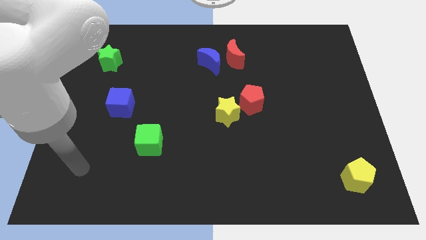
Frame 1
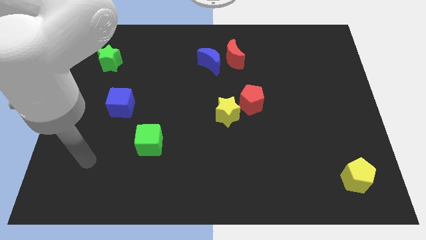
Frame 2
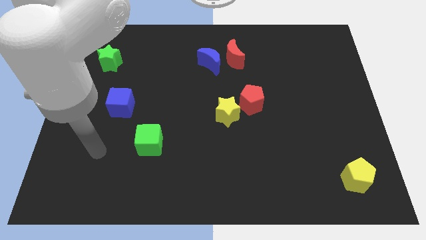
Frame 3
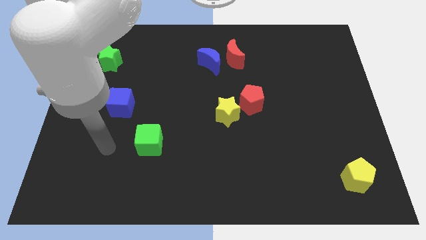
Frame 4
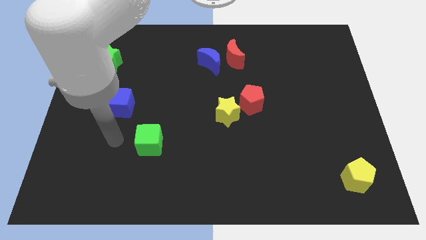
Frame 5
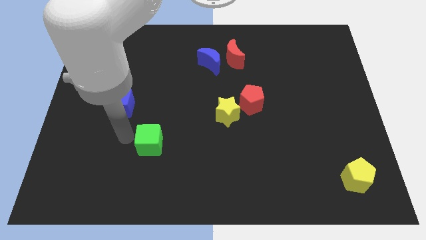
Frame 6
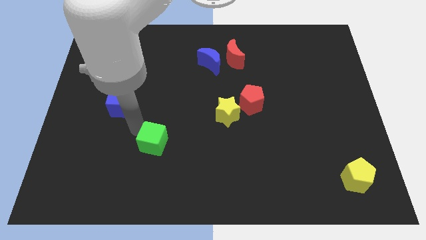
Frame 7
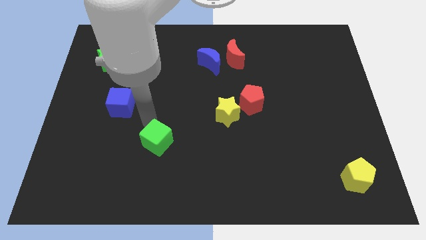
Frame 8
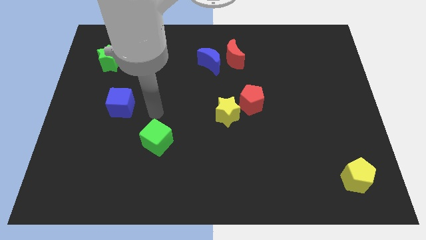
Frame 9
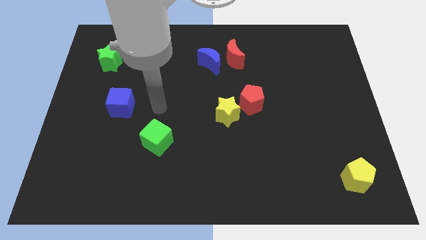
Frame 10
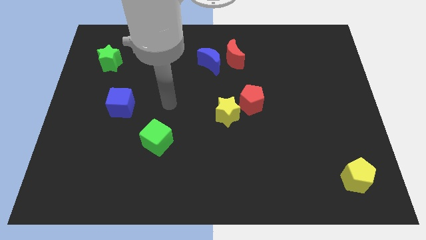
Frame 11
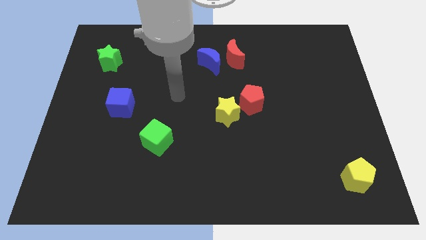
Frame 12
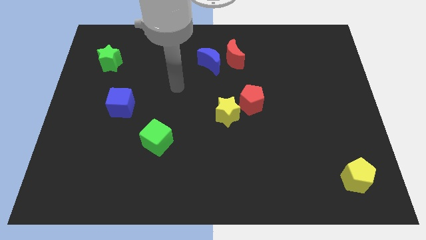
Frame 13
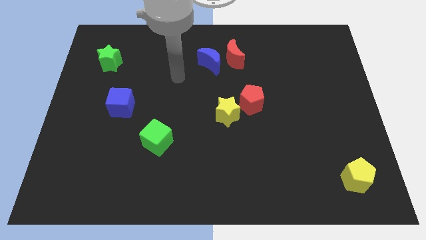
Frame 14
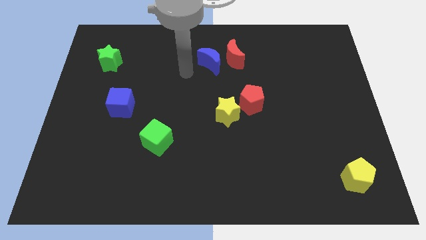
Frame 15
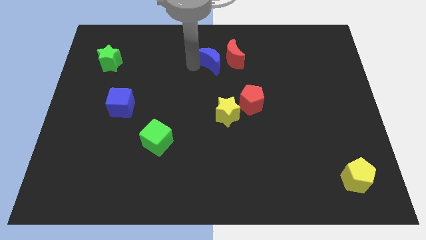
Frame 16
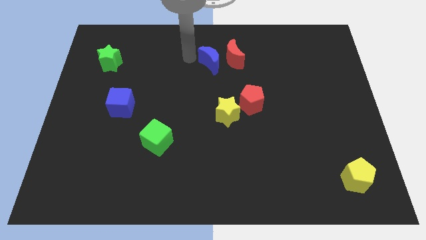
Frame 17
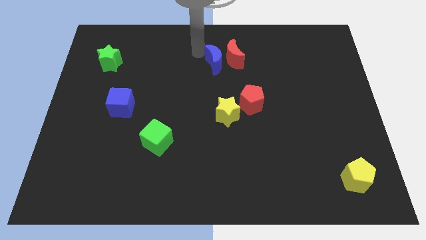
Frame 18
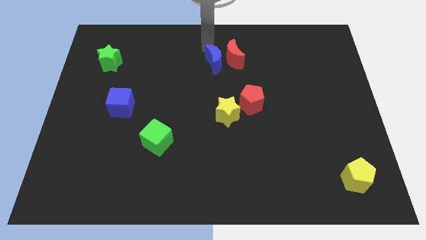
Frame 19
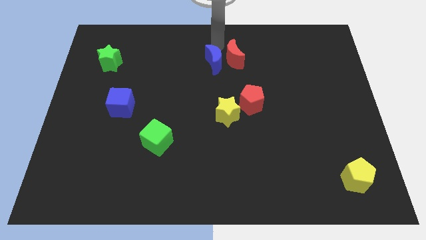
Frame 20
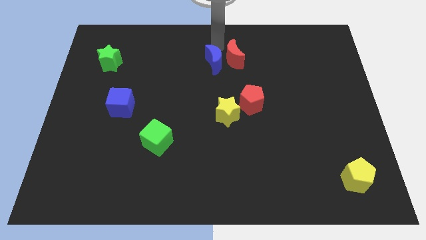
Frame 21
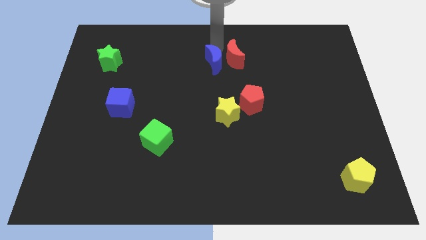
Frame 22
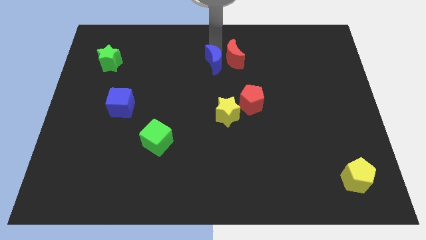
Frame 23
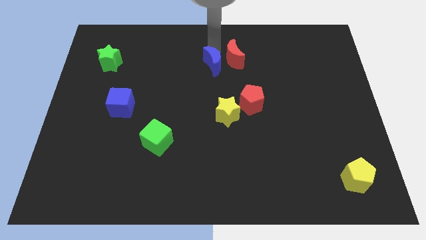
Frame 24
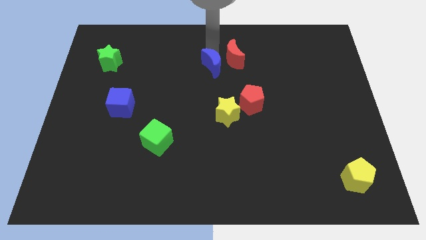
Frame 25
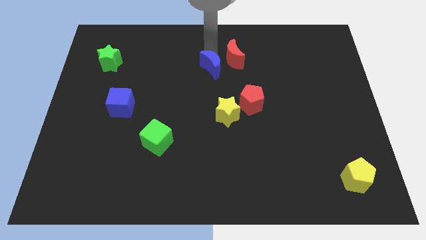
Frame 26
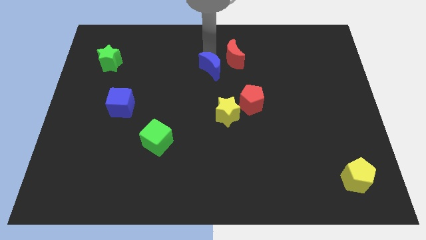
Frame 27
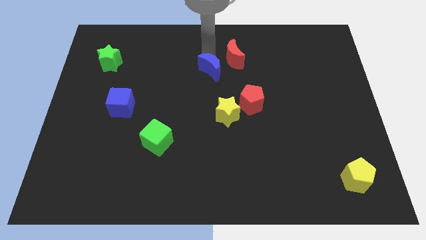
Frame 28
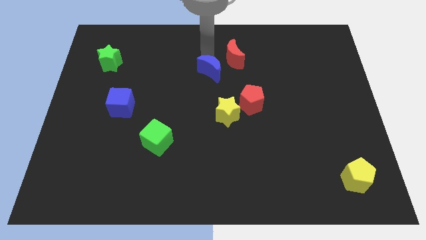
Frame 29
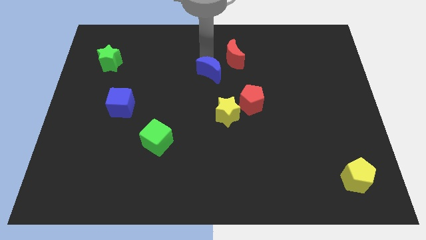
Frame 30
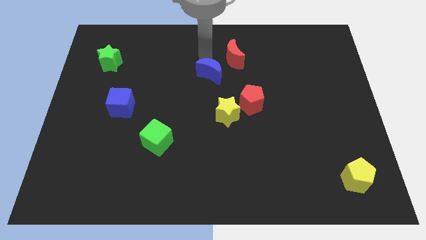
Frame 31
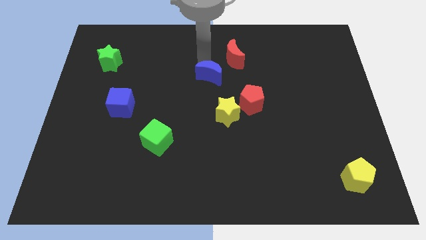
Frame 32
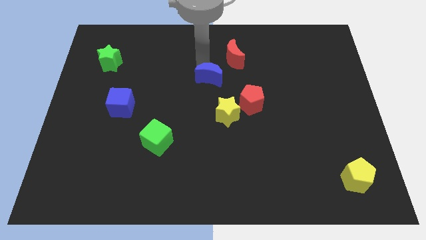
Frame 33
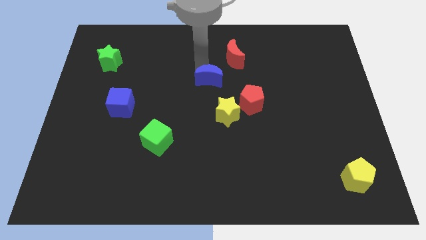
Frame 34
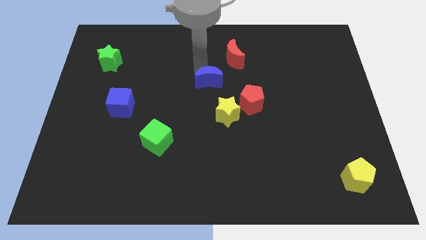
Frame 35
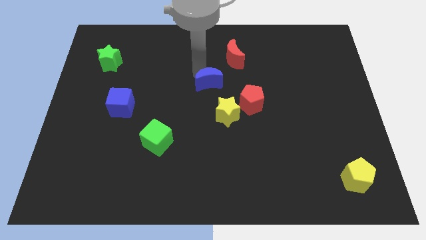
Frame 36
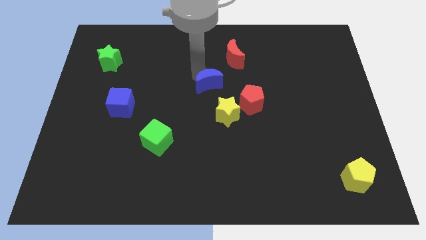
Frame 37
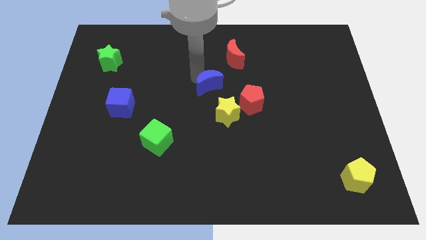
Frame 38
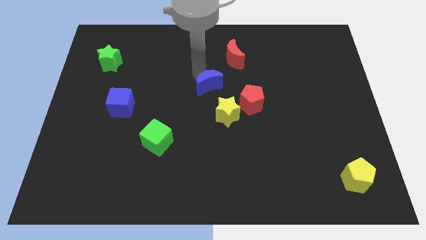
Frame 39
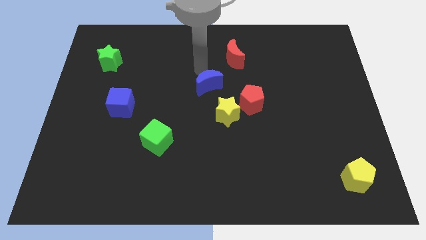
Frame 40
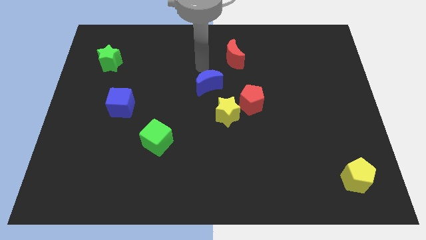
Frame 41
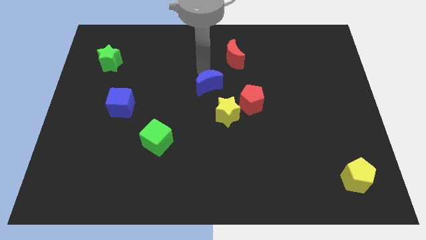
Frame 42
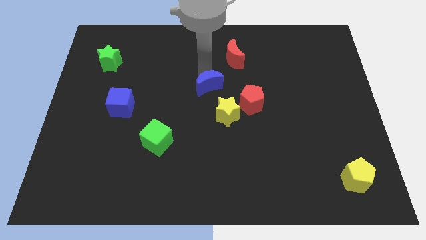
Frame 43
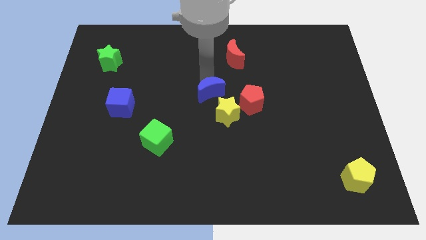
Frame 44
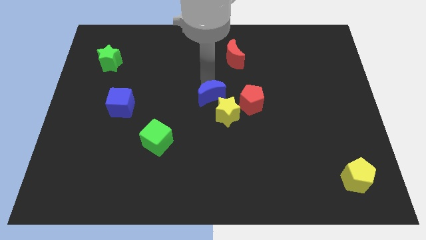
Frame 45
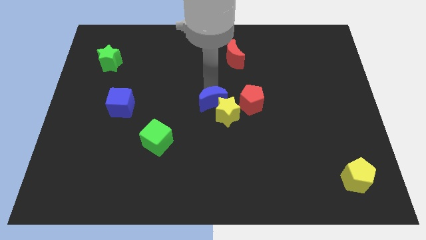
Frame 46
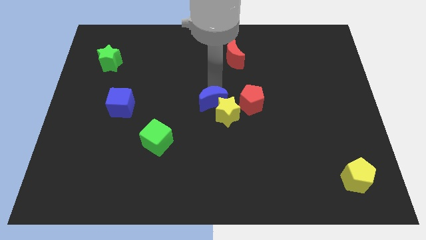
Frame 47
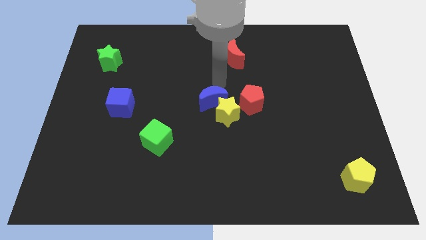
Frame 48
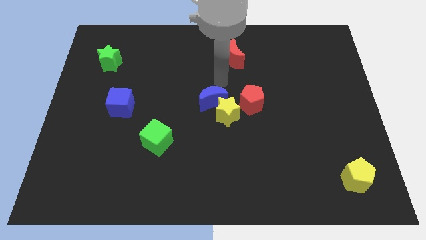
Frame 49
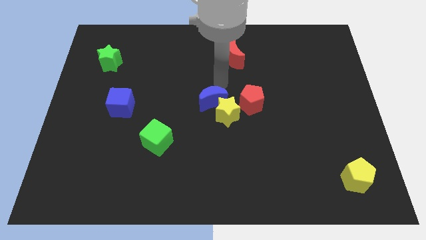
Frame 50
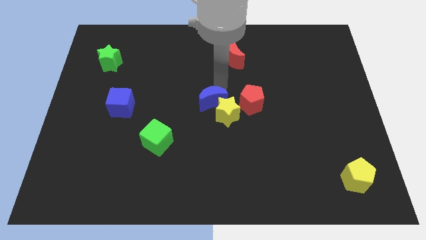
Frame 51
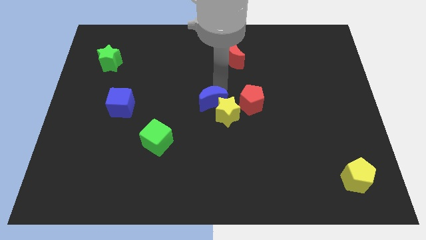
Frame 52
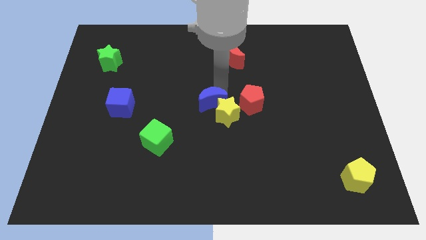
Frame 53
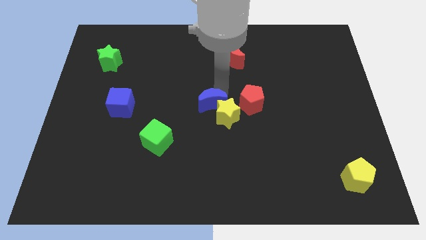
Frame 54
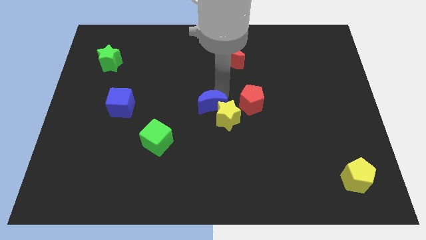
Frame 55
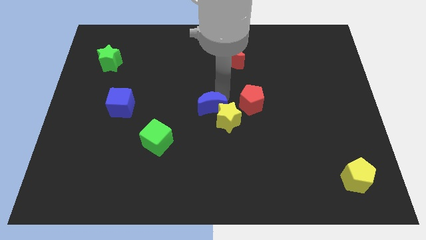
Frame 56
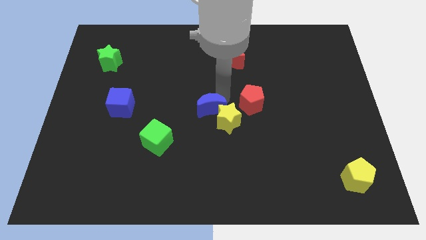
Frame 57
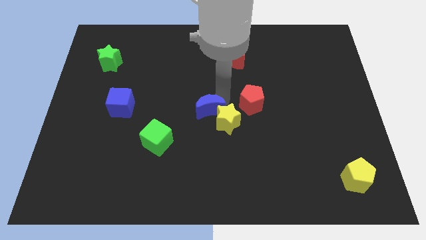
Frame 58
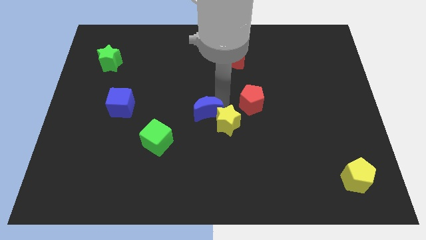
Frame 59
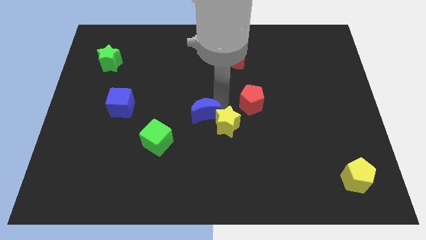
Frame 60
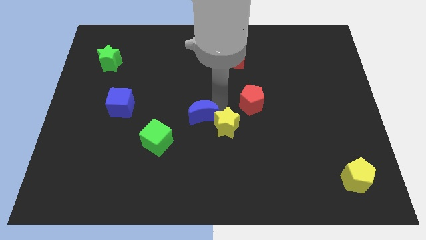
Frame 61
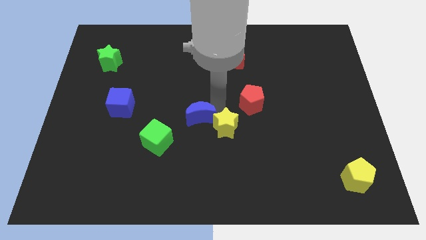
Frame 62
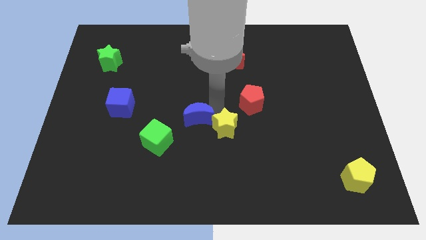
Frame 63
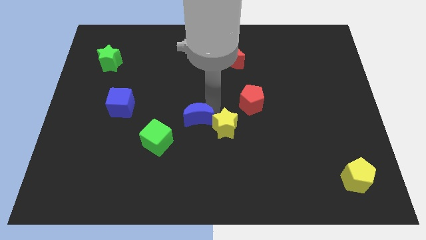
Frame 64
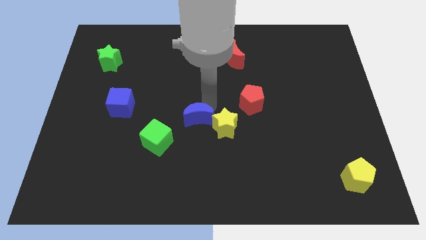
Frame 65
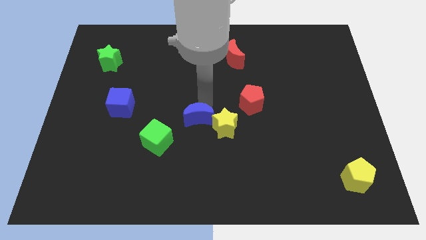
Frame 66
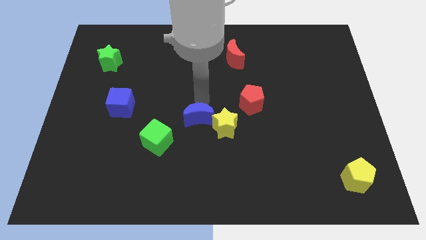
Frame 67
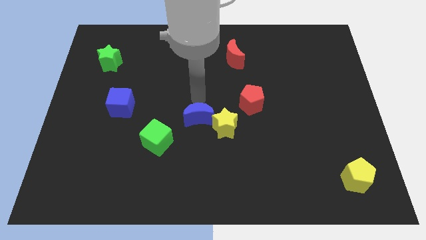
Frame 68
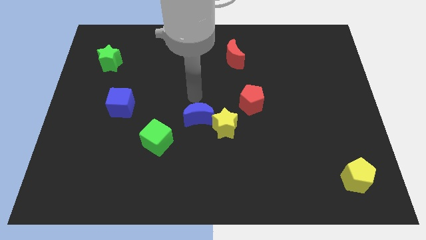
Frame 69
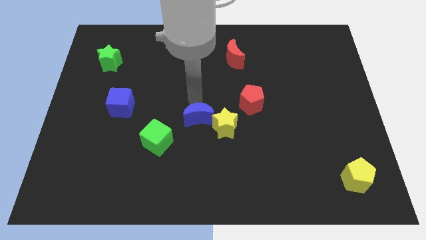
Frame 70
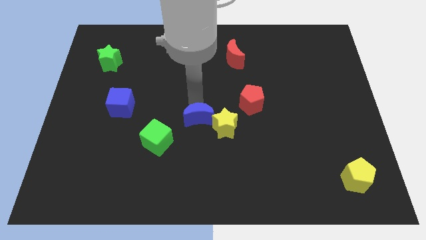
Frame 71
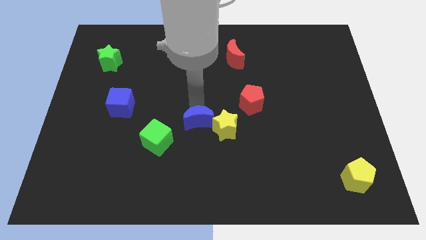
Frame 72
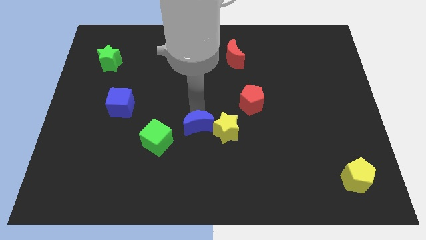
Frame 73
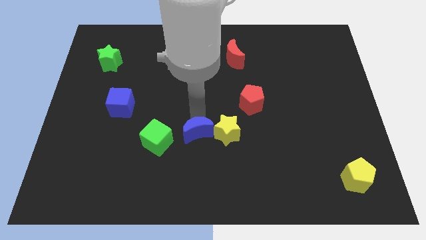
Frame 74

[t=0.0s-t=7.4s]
move the blue moon downwards

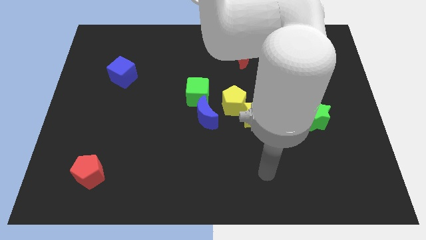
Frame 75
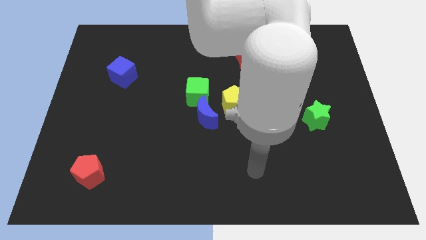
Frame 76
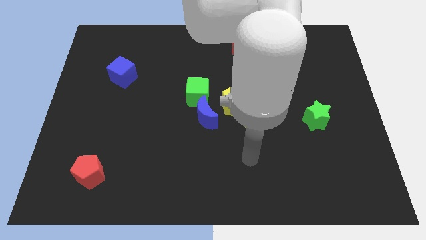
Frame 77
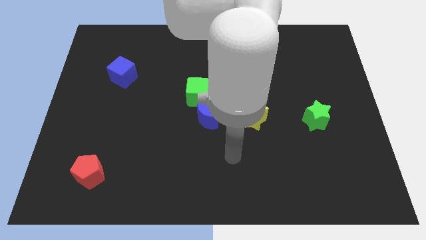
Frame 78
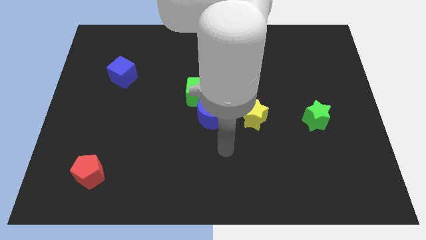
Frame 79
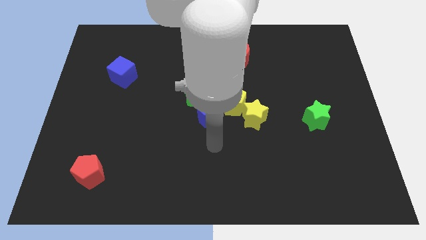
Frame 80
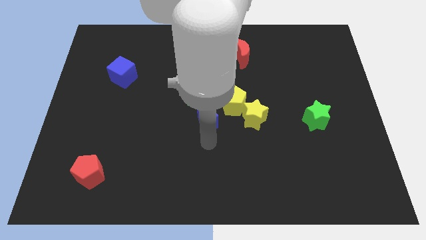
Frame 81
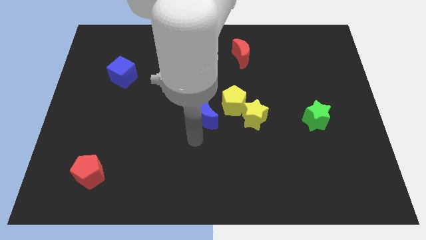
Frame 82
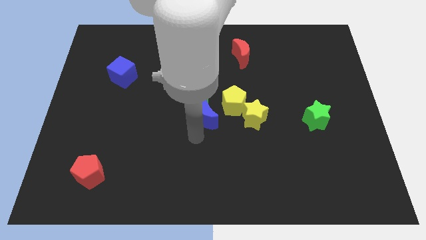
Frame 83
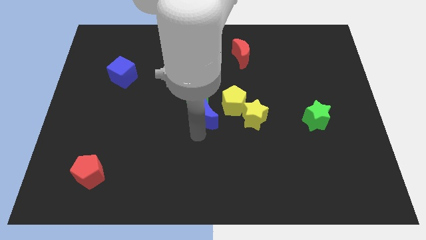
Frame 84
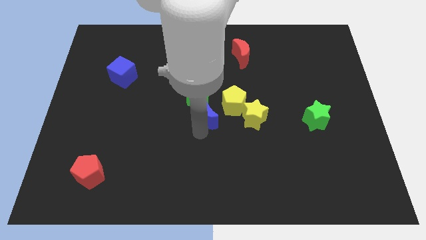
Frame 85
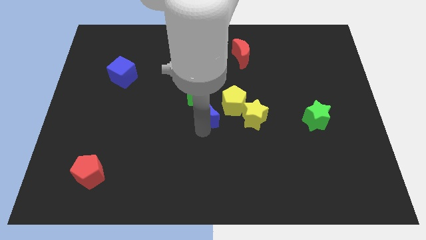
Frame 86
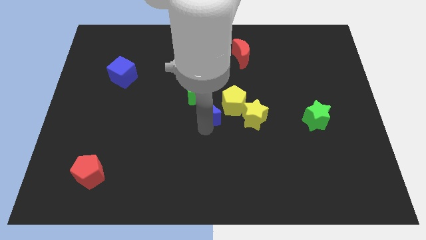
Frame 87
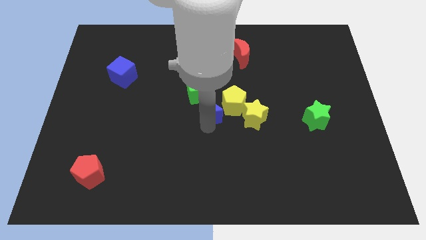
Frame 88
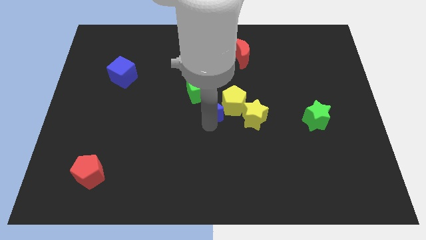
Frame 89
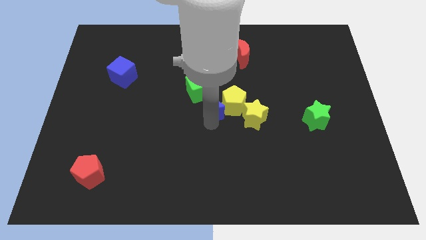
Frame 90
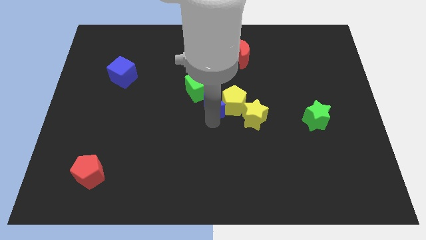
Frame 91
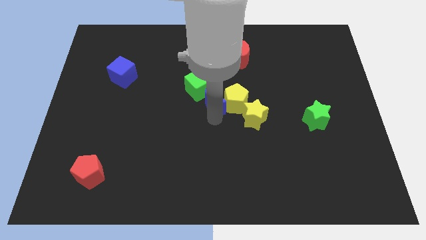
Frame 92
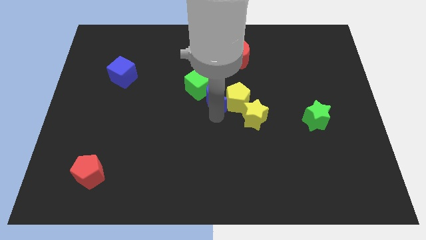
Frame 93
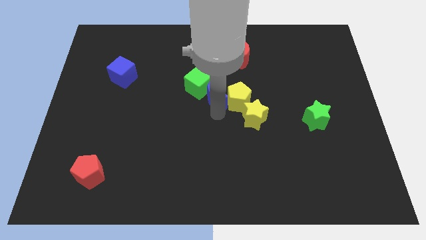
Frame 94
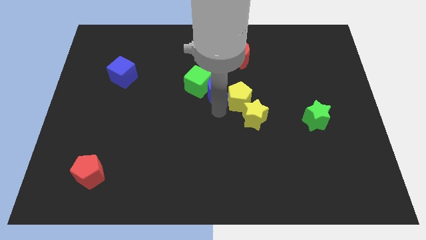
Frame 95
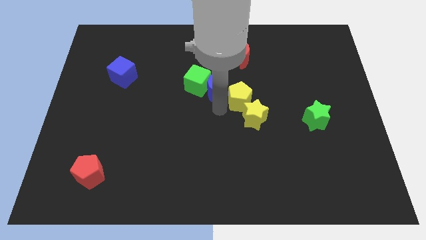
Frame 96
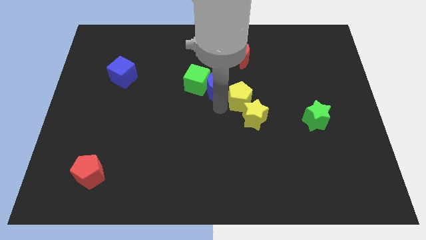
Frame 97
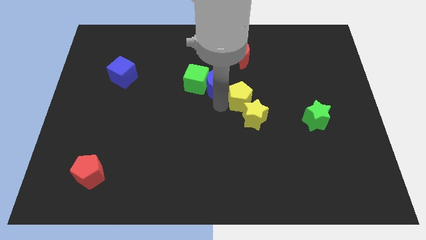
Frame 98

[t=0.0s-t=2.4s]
slide the blue moon slightly up and then to the right
